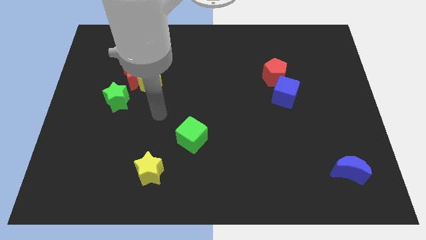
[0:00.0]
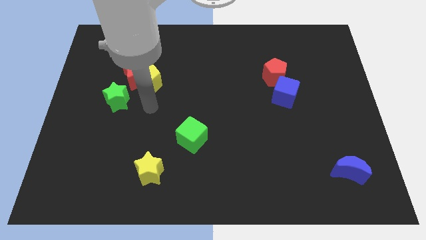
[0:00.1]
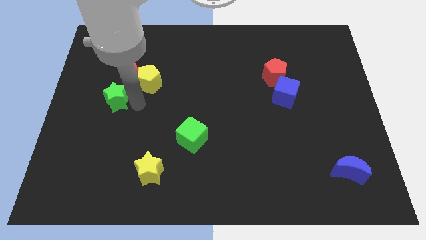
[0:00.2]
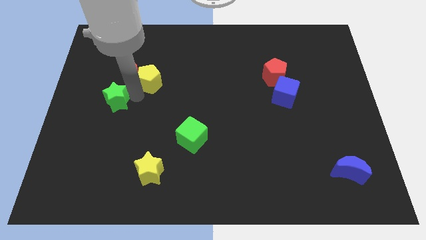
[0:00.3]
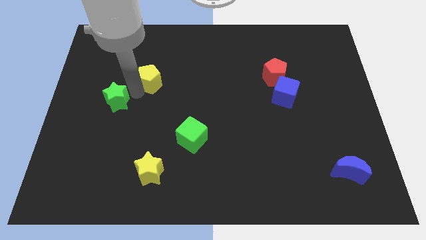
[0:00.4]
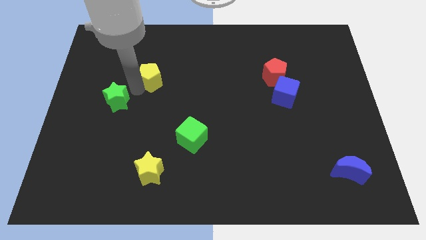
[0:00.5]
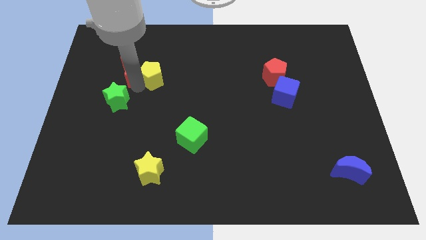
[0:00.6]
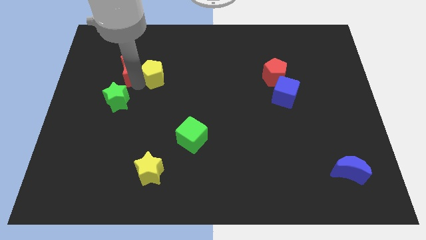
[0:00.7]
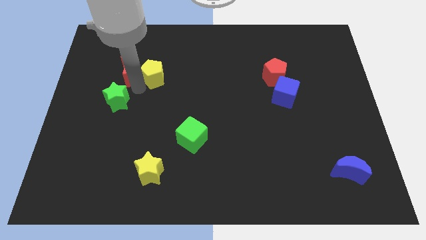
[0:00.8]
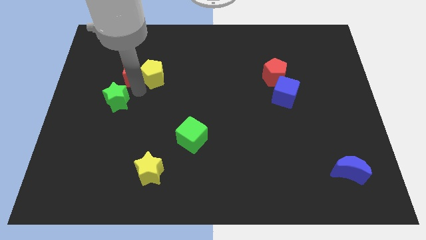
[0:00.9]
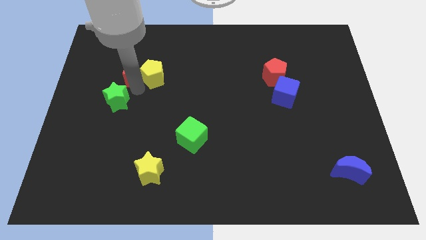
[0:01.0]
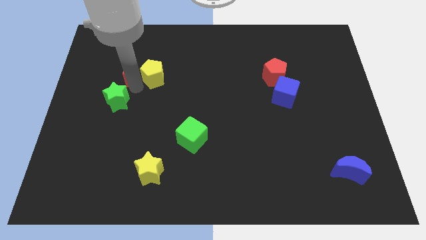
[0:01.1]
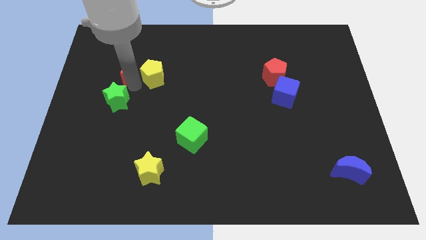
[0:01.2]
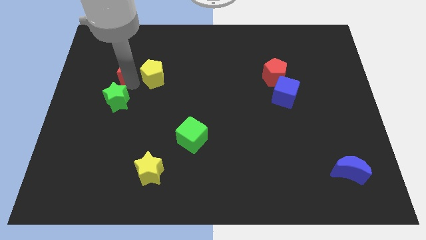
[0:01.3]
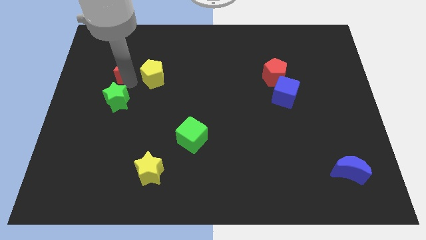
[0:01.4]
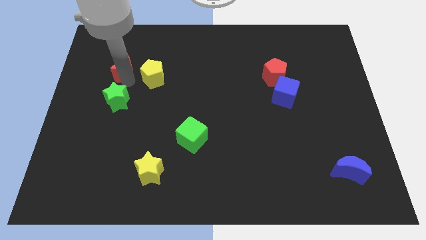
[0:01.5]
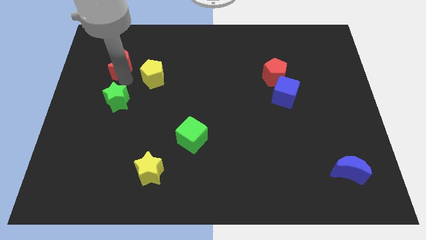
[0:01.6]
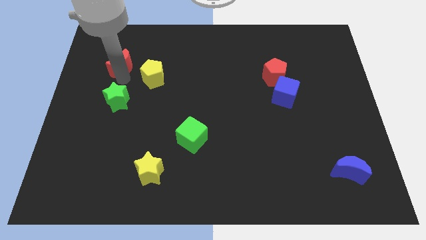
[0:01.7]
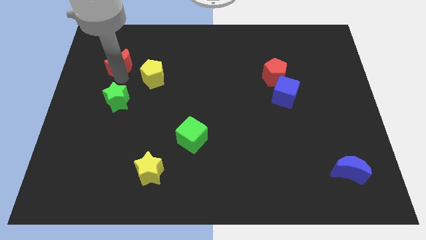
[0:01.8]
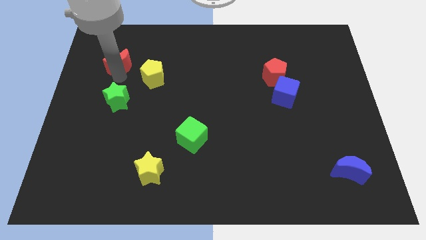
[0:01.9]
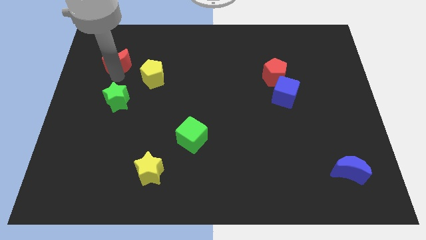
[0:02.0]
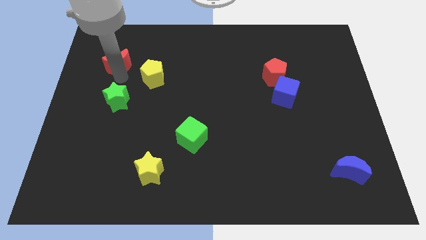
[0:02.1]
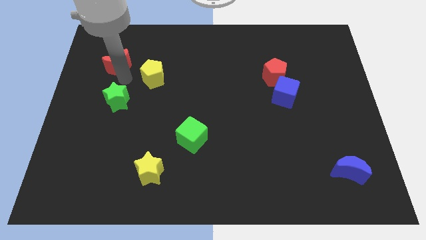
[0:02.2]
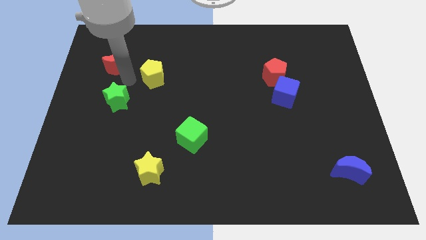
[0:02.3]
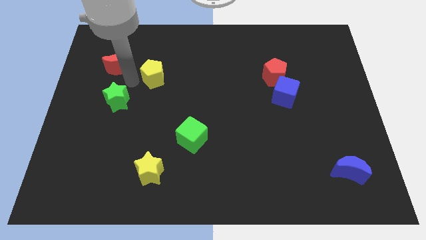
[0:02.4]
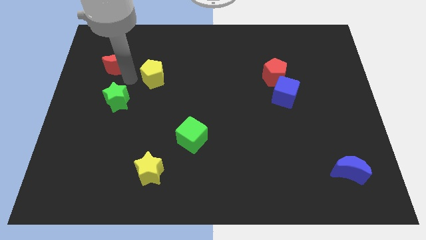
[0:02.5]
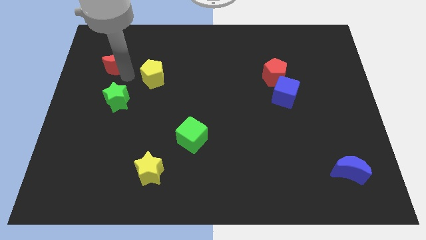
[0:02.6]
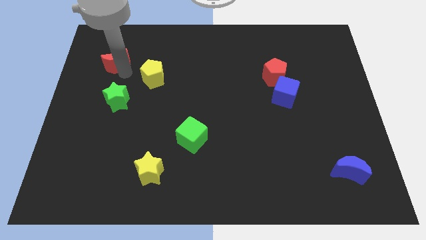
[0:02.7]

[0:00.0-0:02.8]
pull the red moon apart from the yellow pentagon and green star

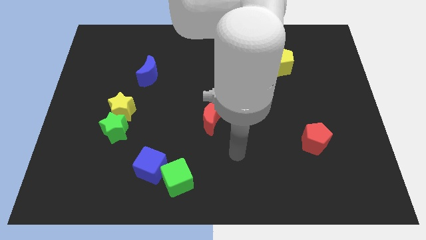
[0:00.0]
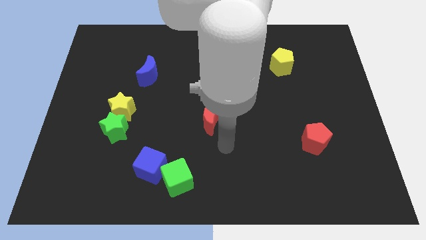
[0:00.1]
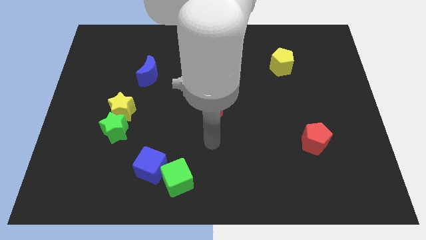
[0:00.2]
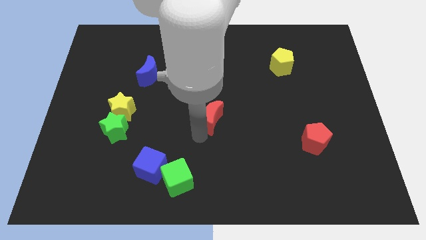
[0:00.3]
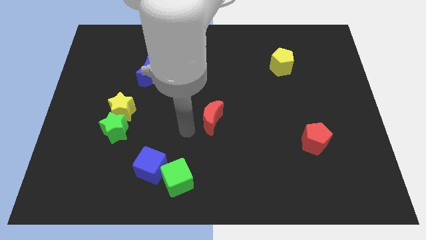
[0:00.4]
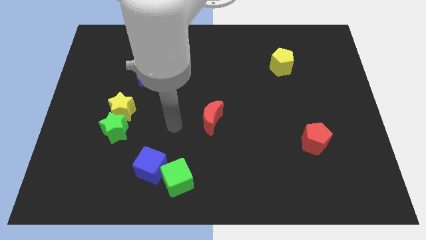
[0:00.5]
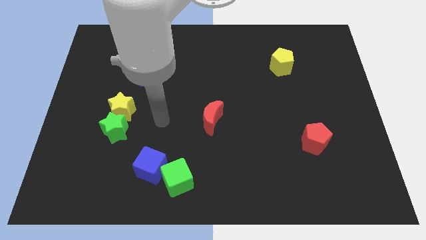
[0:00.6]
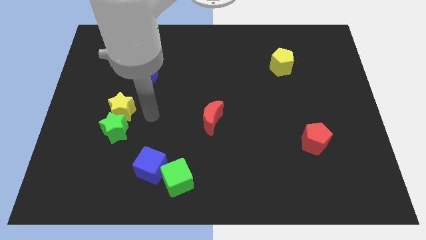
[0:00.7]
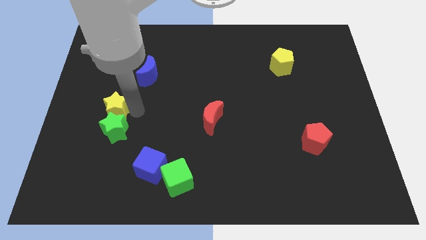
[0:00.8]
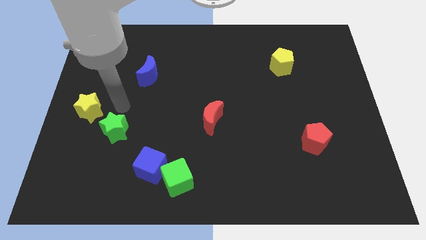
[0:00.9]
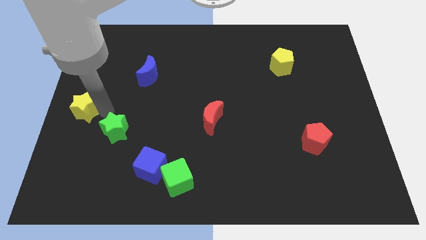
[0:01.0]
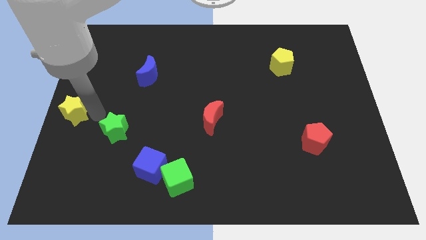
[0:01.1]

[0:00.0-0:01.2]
move the green star away from the yellow star

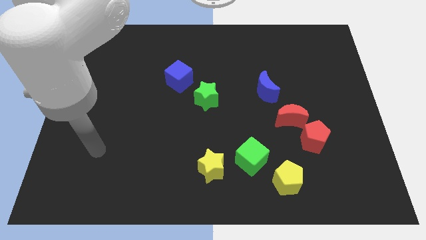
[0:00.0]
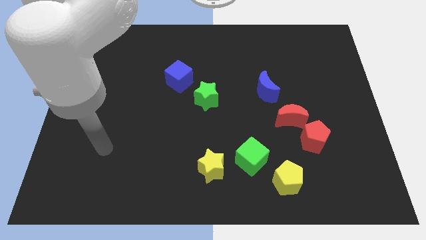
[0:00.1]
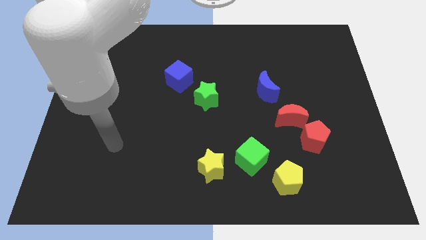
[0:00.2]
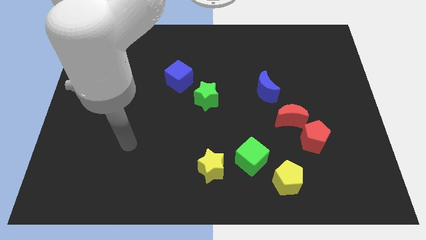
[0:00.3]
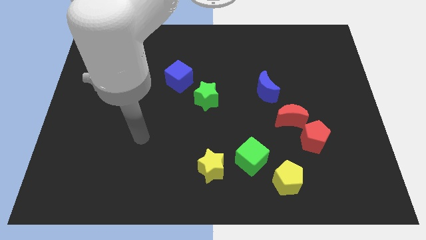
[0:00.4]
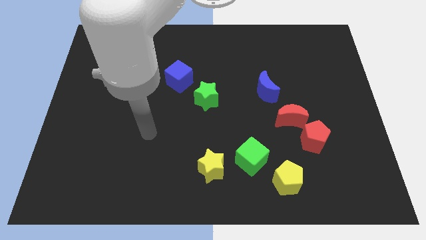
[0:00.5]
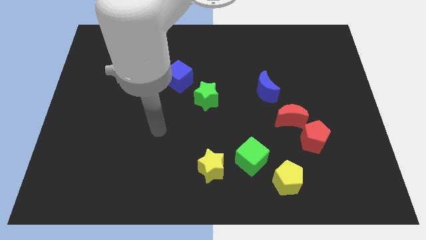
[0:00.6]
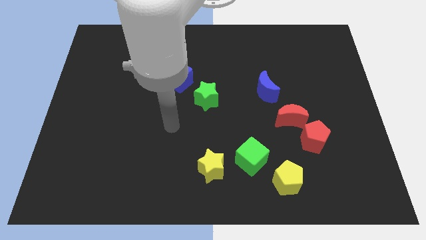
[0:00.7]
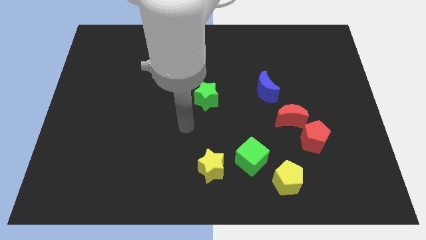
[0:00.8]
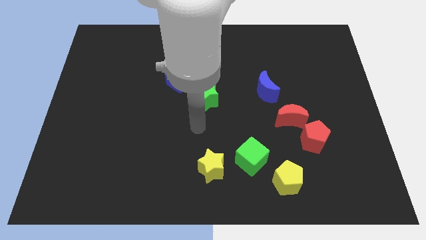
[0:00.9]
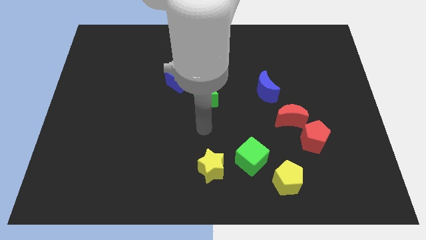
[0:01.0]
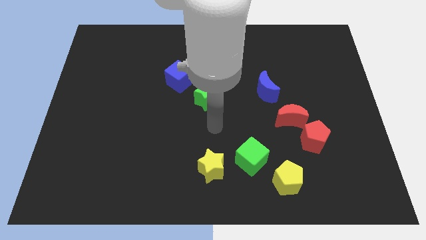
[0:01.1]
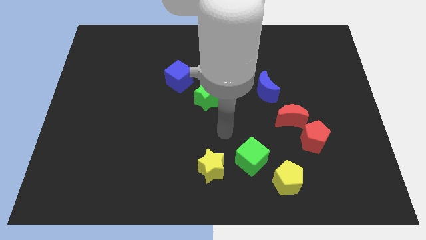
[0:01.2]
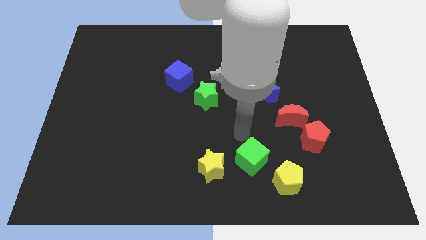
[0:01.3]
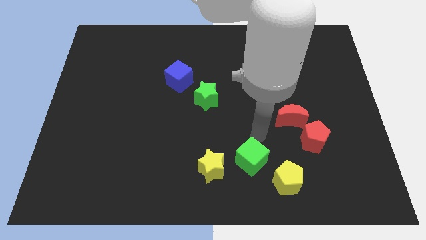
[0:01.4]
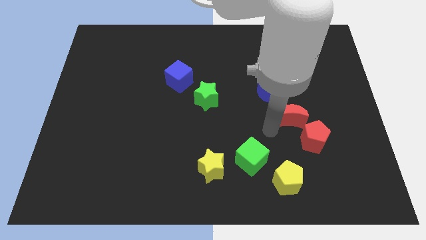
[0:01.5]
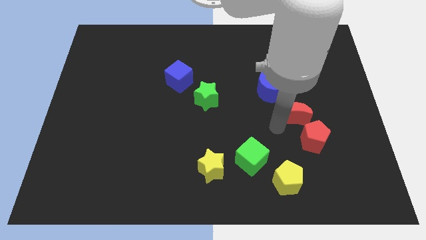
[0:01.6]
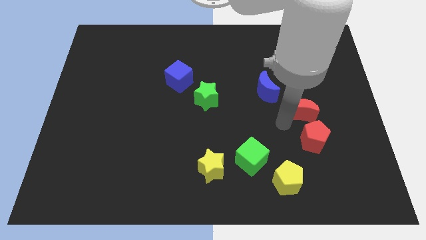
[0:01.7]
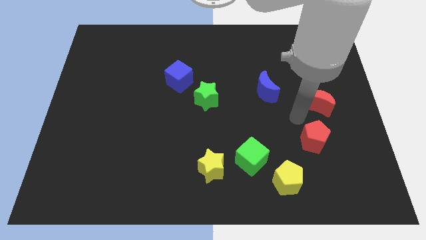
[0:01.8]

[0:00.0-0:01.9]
separate the red pentagon from the red moon

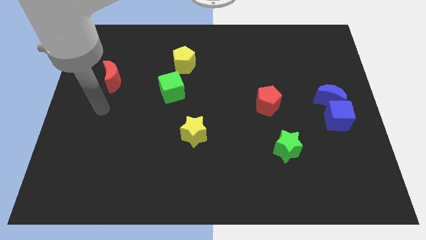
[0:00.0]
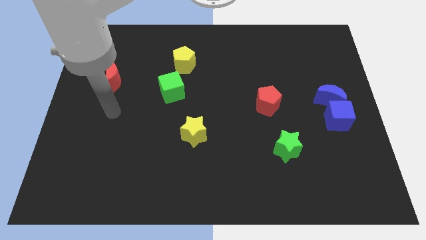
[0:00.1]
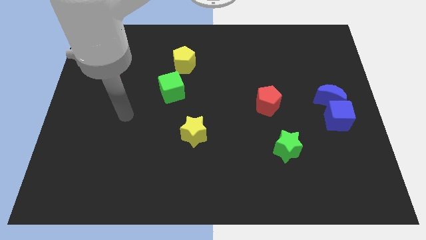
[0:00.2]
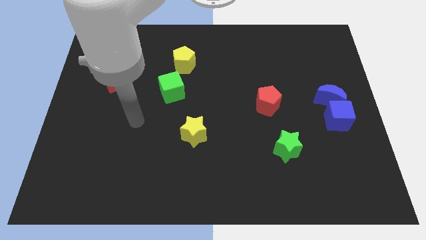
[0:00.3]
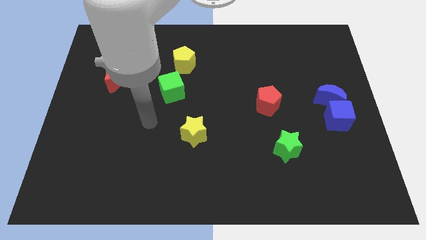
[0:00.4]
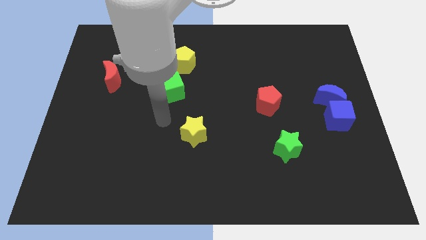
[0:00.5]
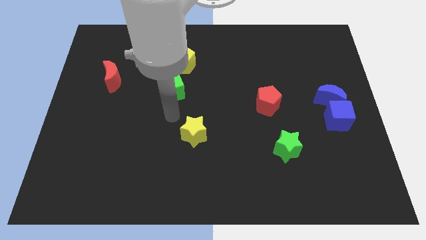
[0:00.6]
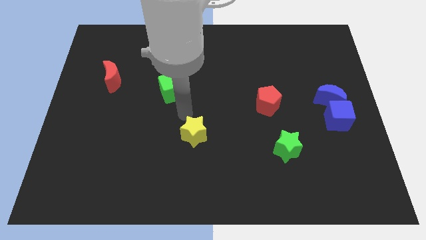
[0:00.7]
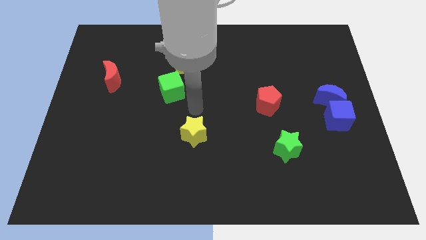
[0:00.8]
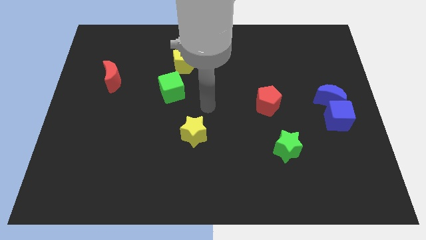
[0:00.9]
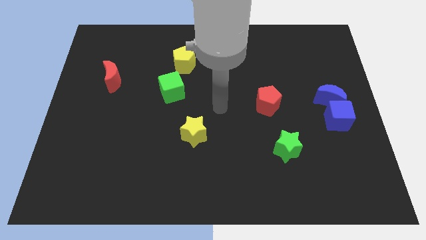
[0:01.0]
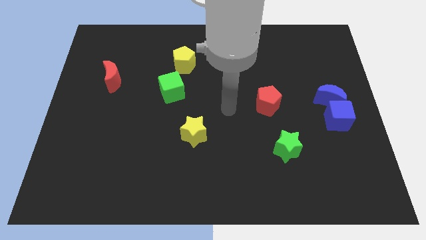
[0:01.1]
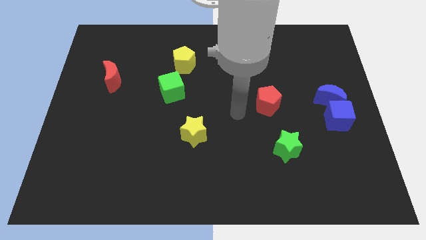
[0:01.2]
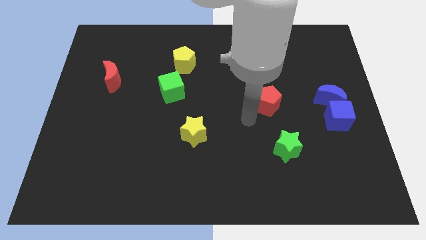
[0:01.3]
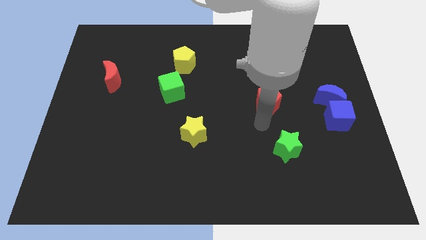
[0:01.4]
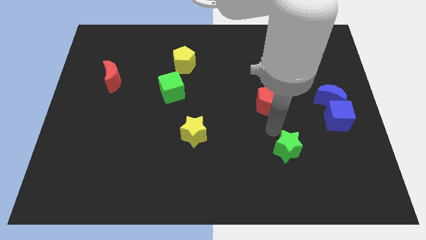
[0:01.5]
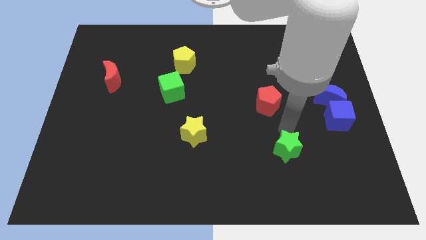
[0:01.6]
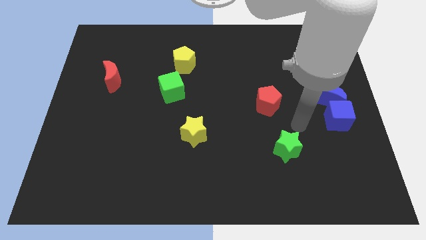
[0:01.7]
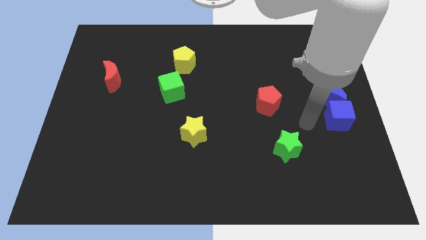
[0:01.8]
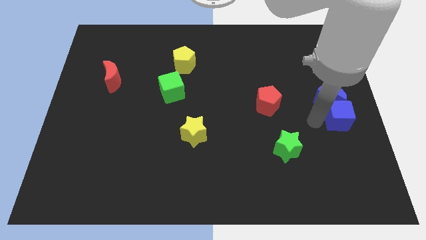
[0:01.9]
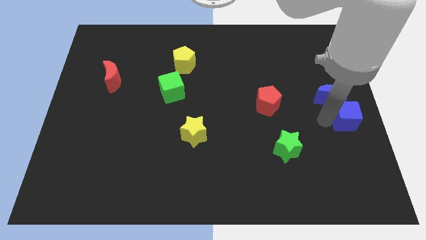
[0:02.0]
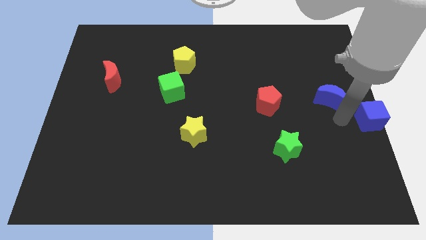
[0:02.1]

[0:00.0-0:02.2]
move the blue moon away from the blue cube

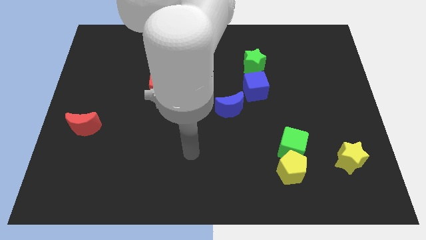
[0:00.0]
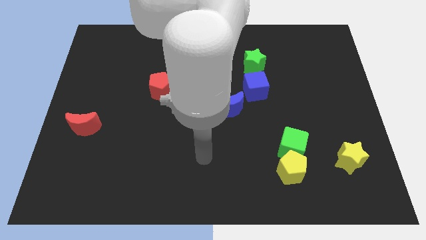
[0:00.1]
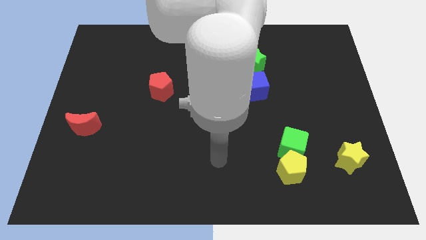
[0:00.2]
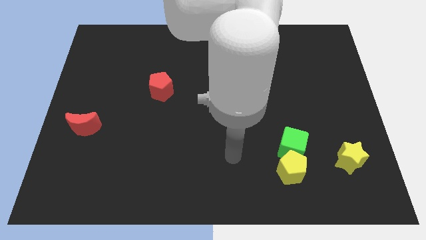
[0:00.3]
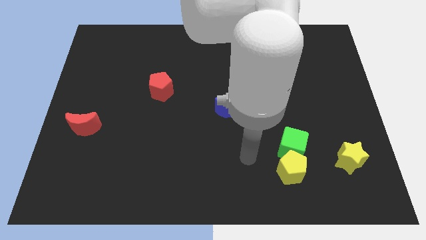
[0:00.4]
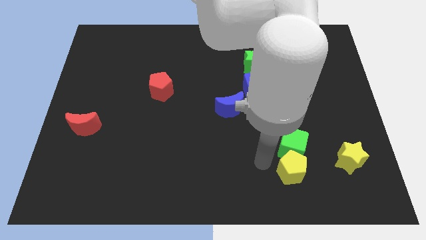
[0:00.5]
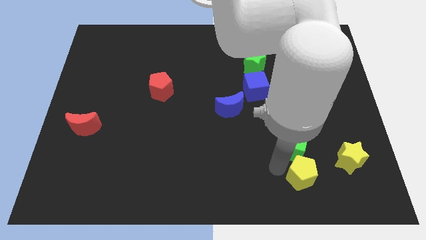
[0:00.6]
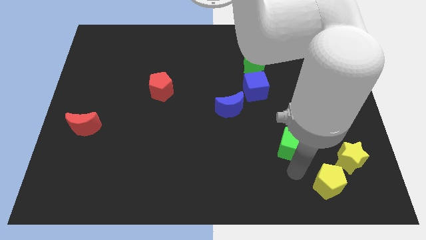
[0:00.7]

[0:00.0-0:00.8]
move the green cube away from the yellow pentagon

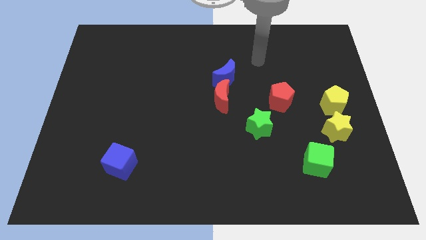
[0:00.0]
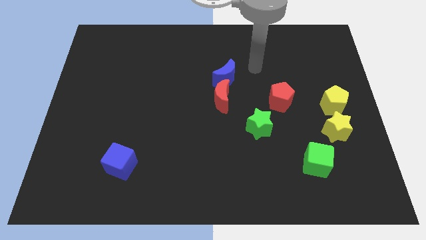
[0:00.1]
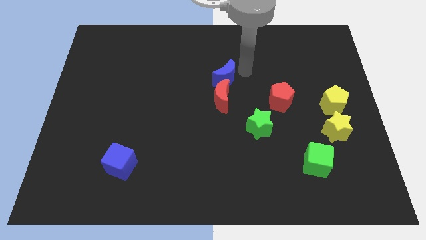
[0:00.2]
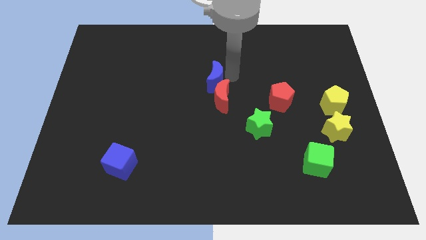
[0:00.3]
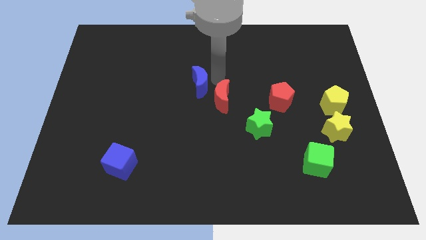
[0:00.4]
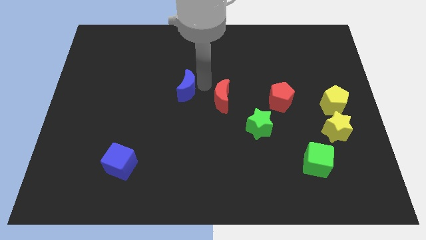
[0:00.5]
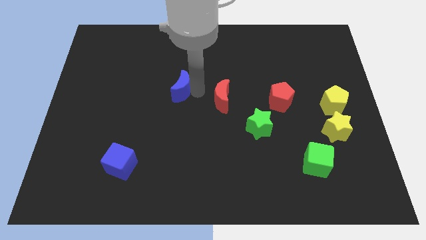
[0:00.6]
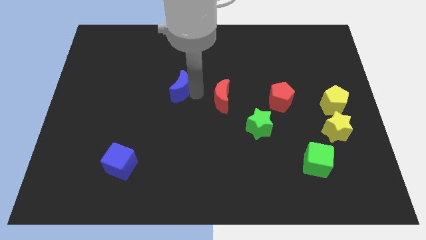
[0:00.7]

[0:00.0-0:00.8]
separate the red moon from the blue moon
